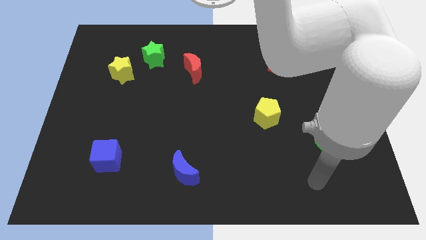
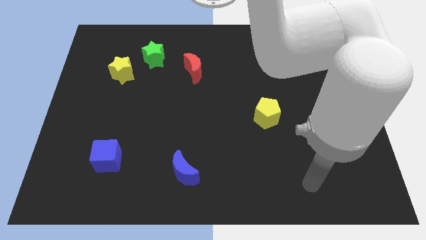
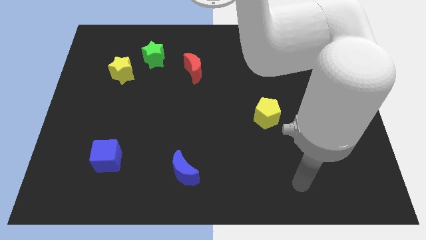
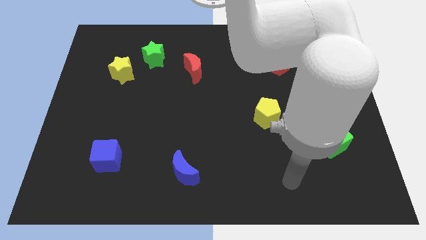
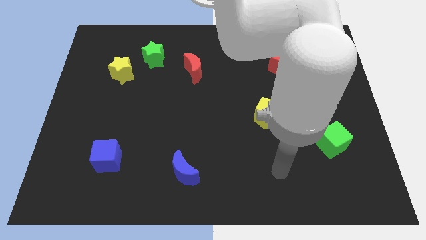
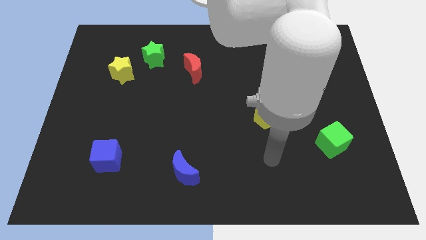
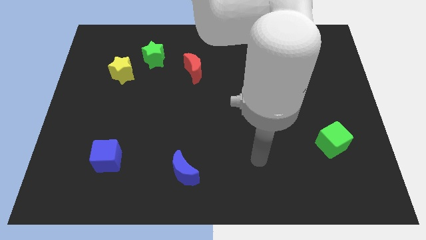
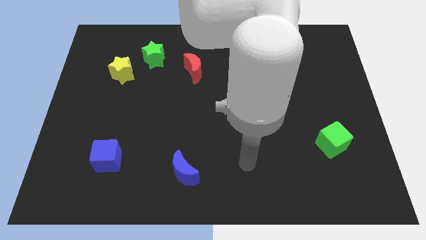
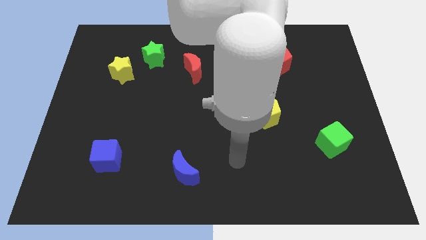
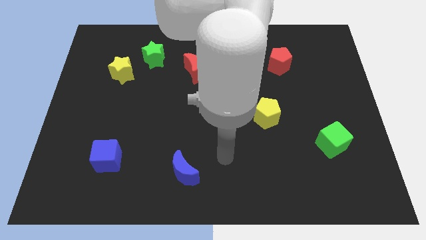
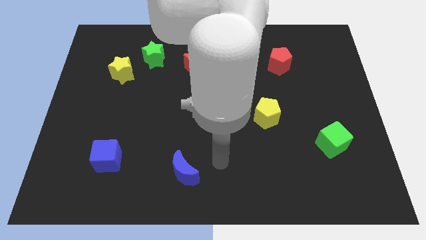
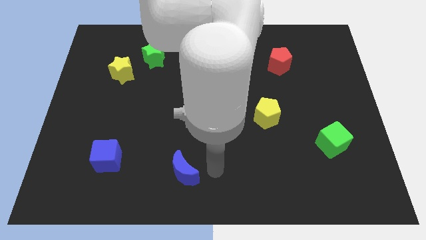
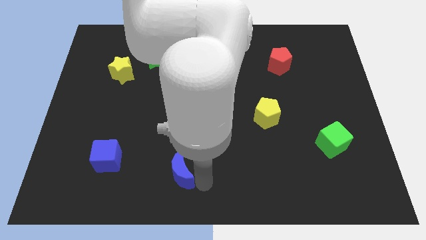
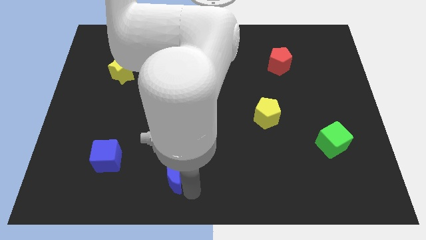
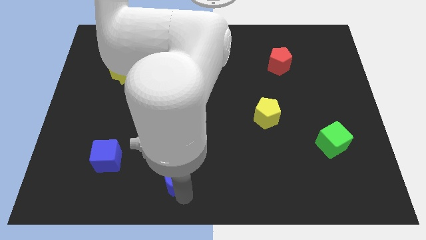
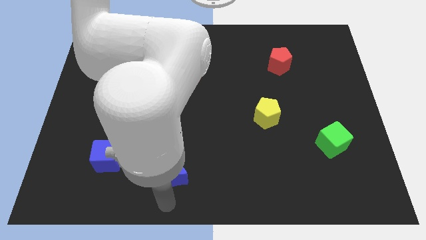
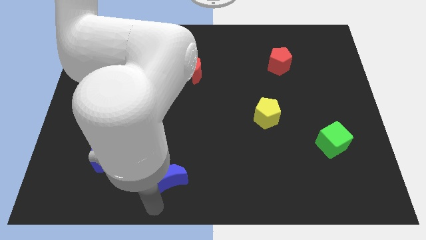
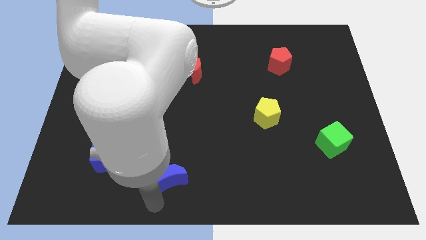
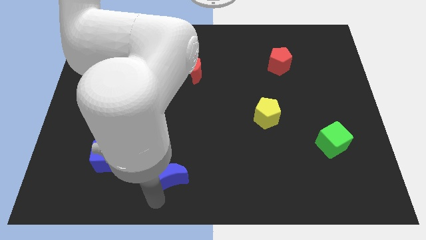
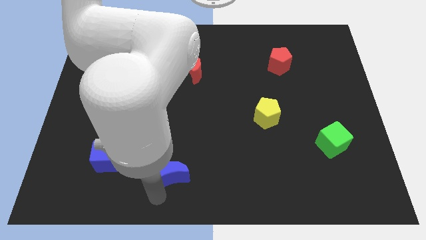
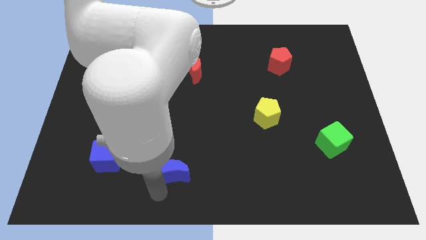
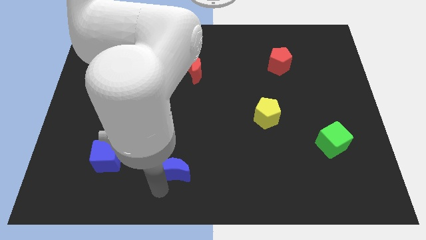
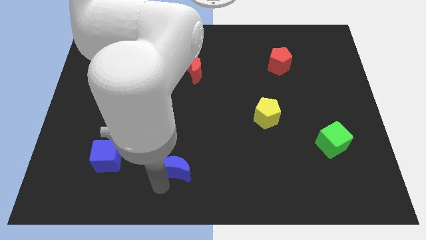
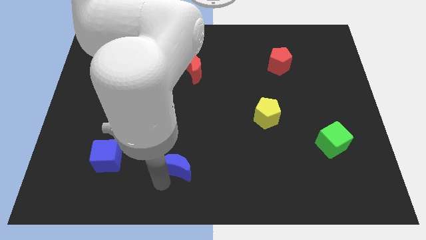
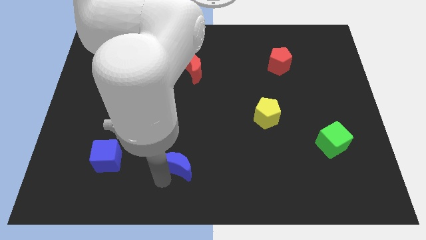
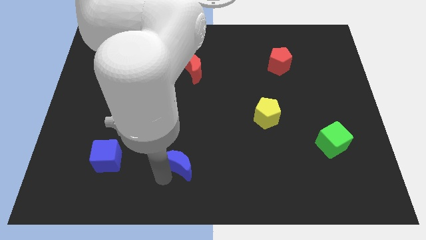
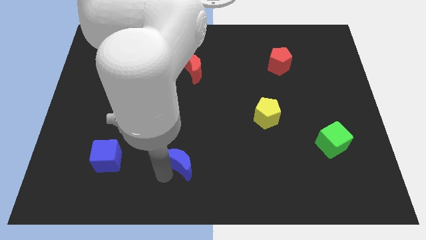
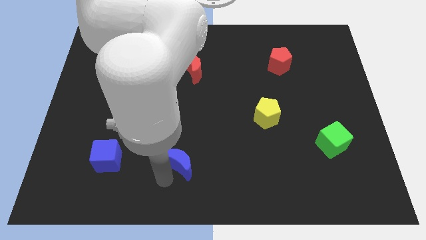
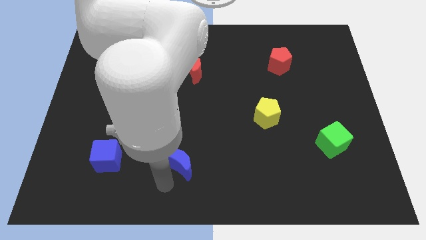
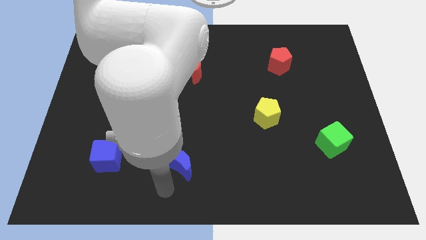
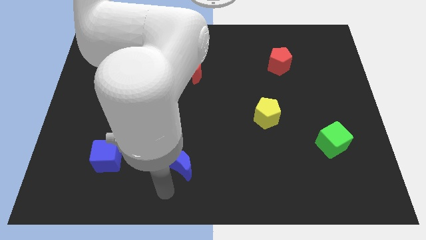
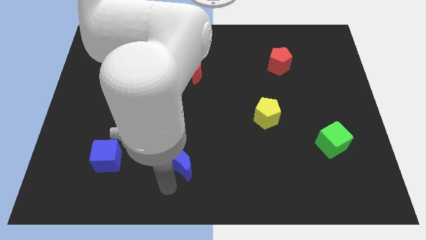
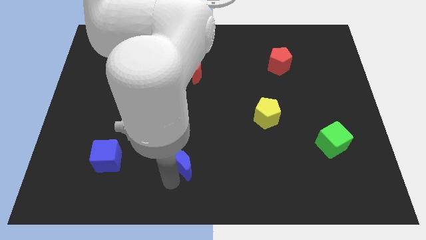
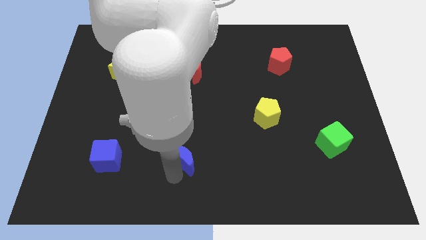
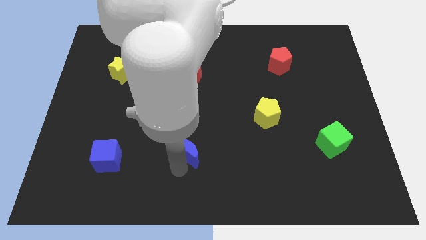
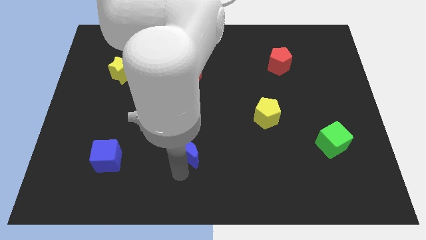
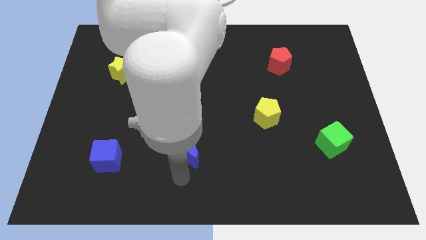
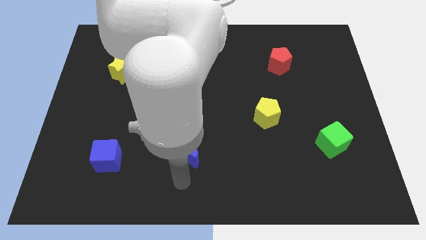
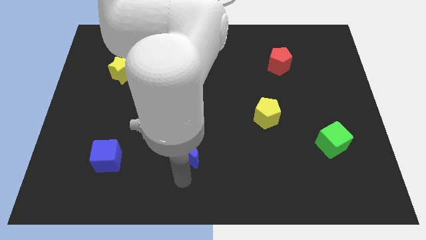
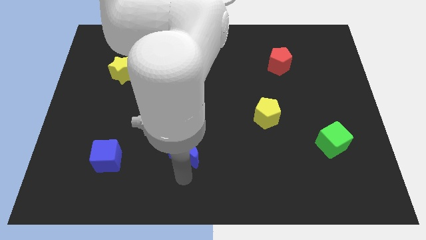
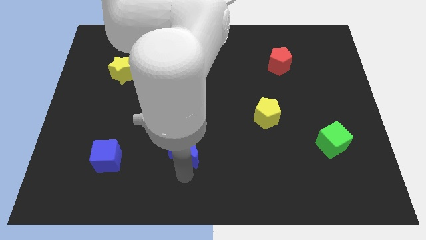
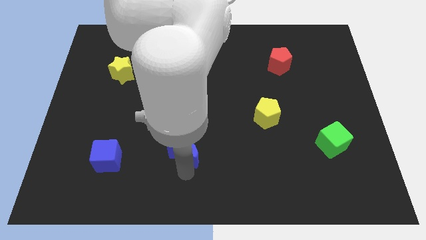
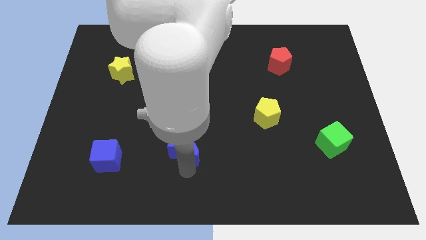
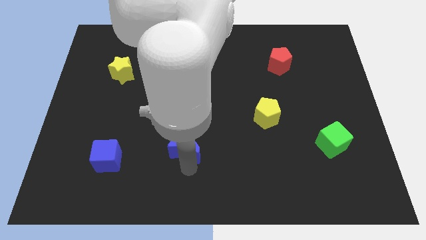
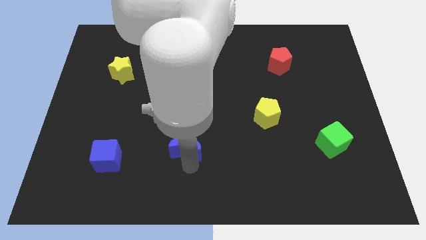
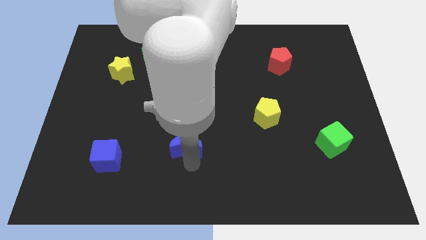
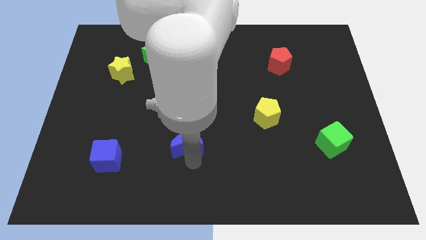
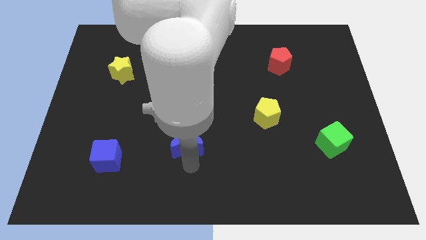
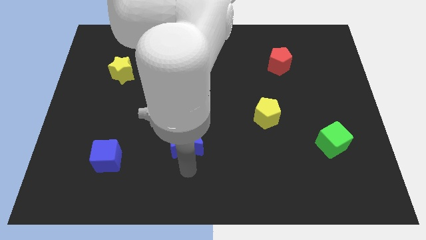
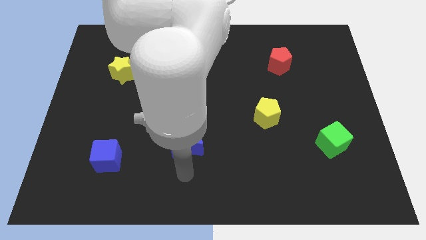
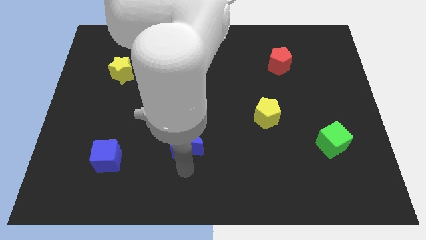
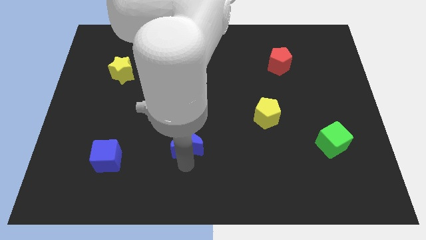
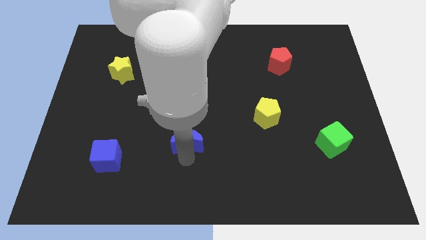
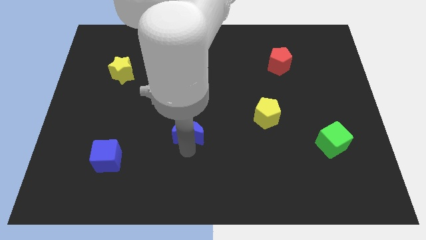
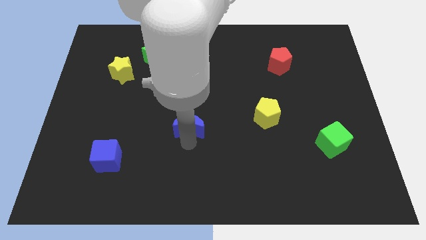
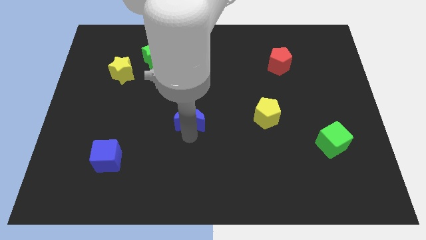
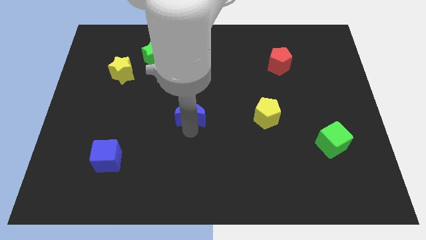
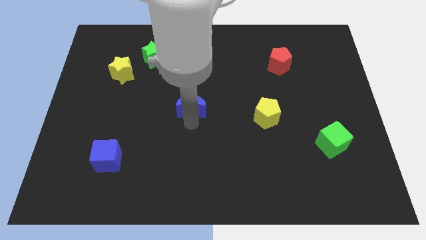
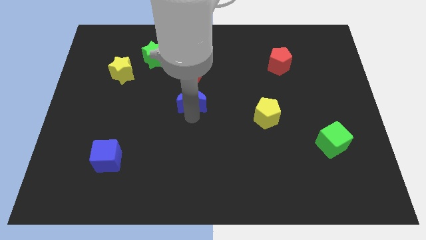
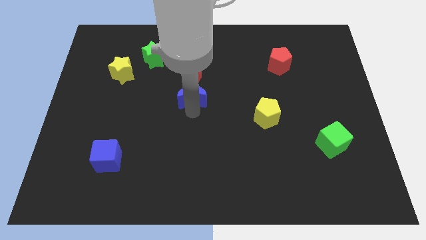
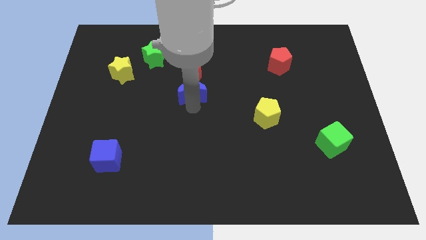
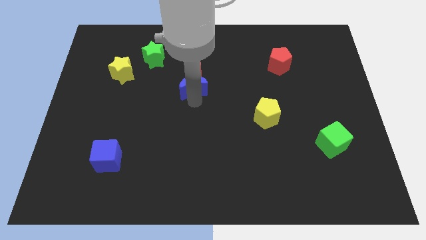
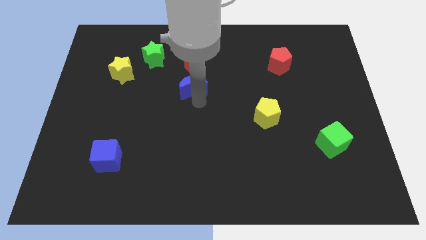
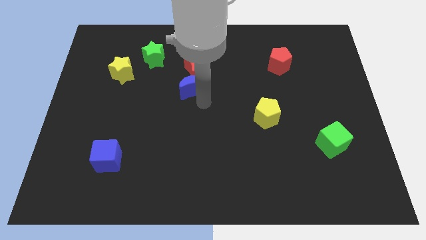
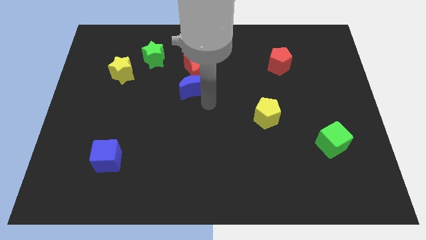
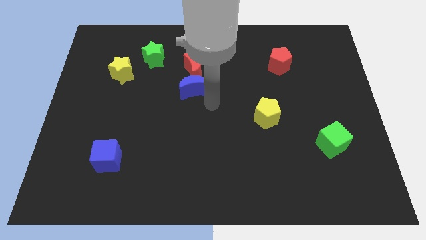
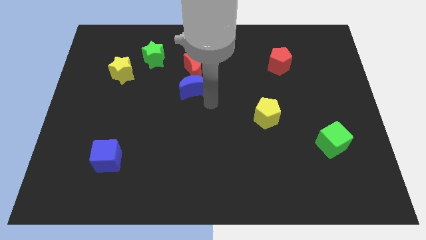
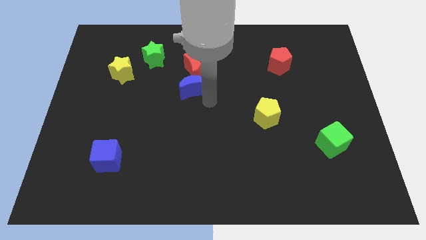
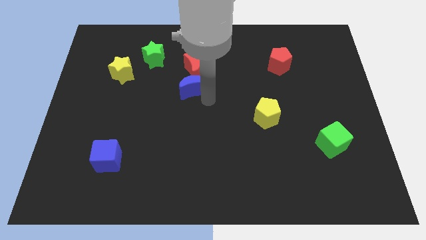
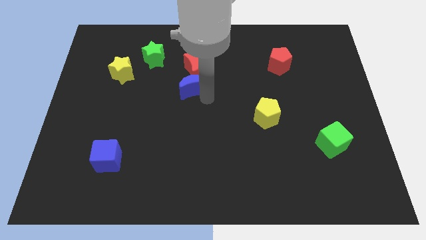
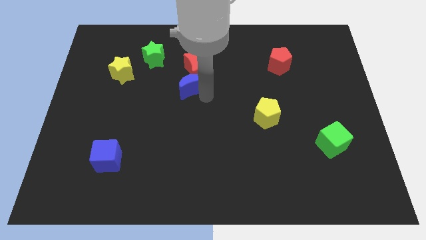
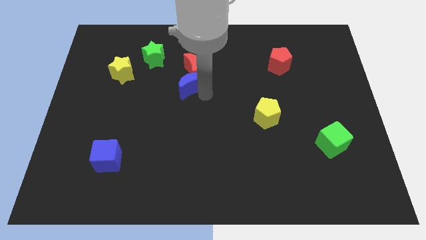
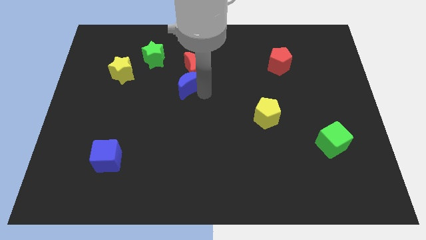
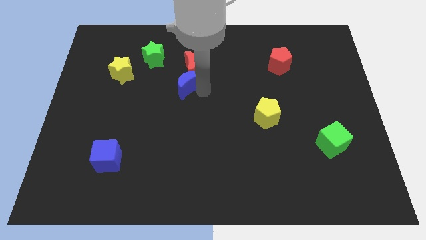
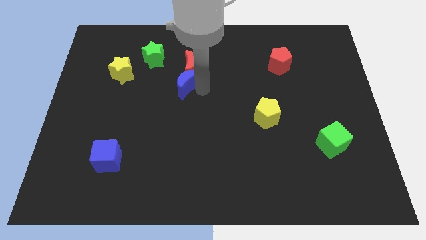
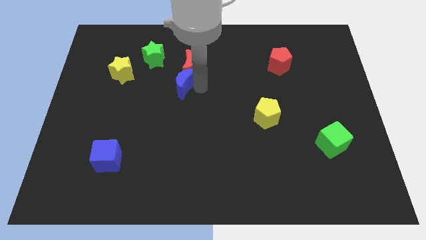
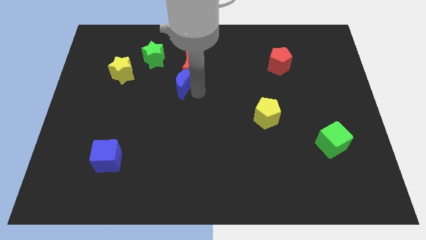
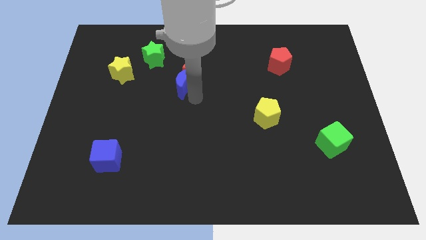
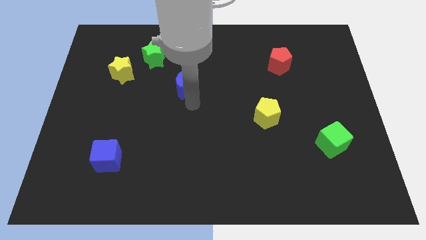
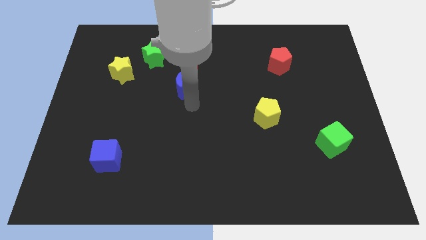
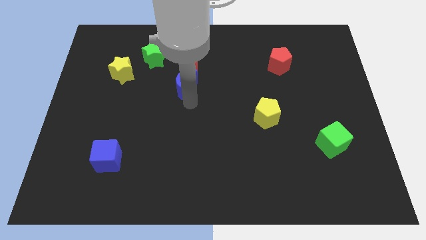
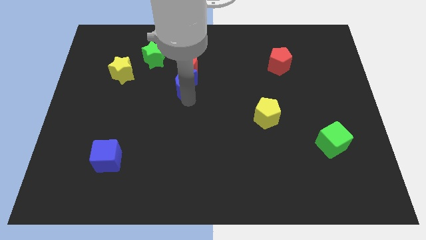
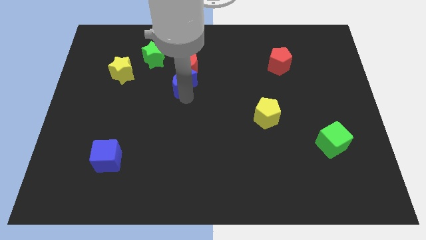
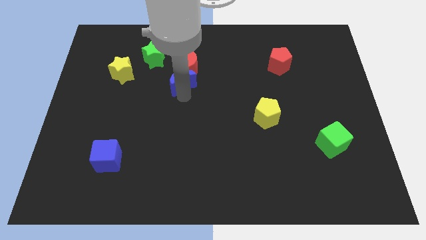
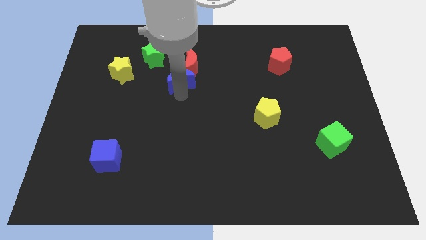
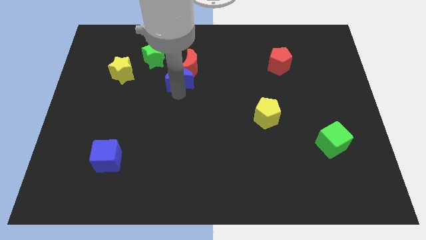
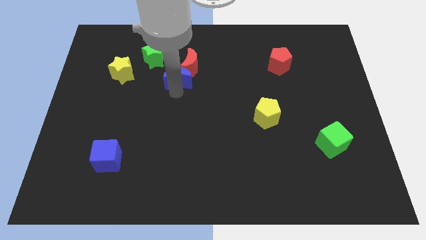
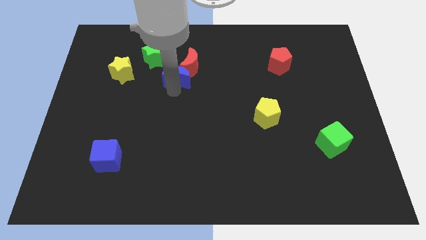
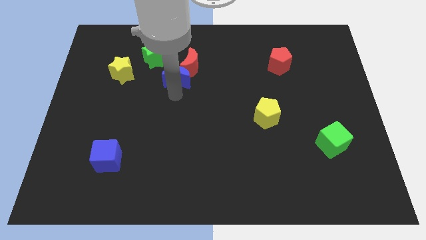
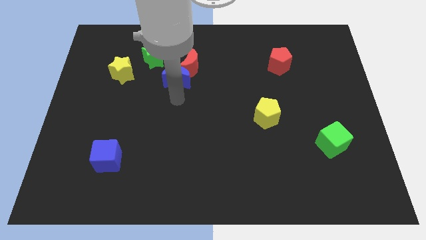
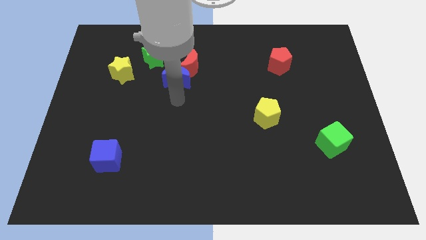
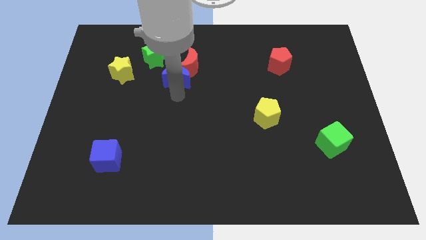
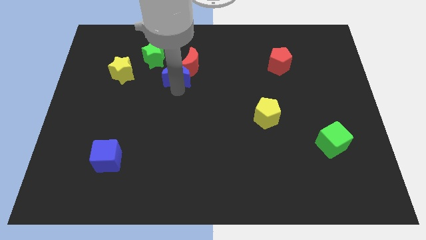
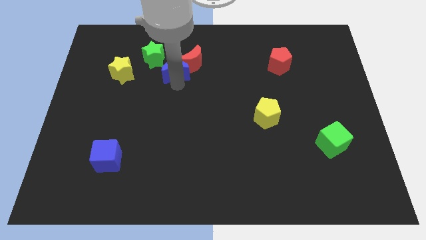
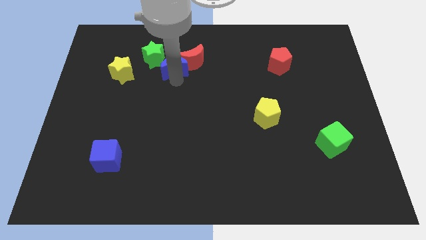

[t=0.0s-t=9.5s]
push the blue moon just right of the green star
